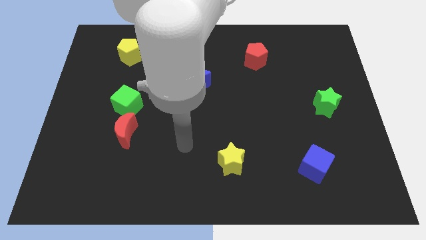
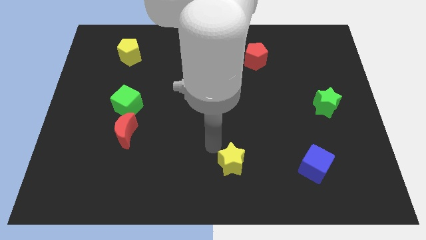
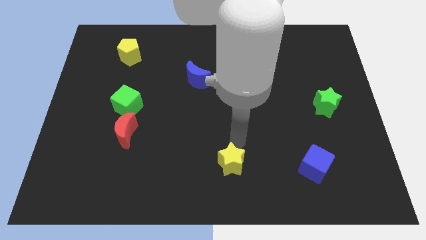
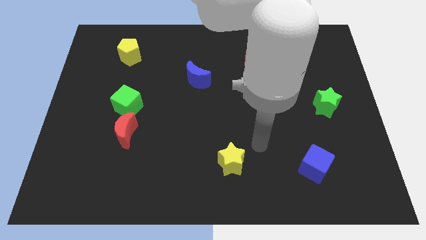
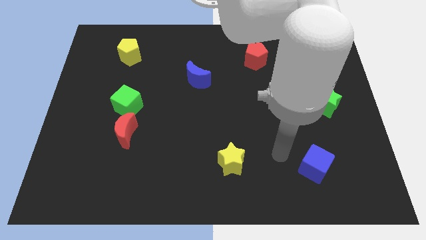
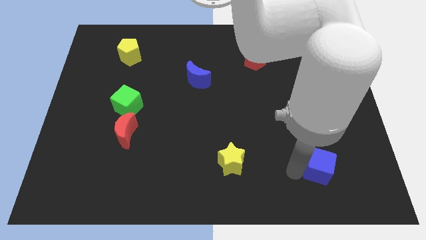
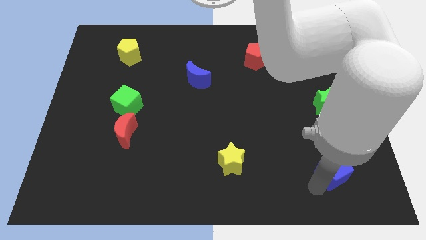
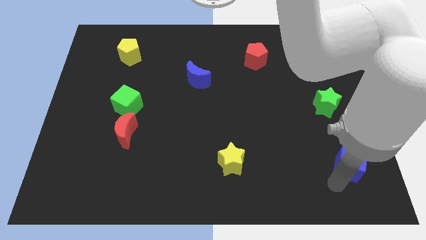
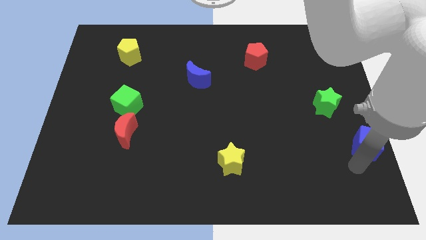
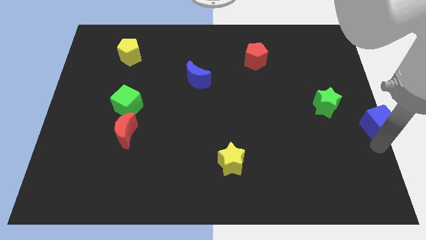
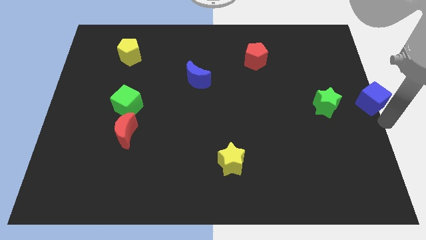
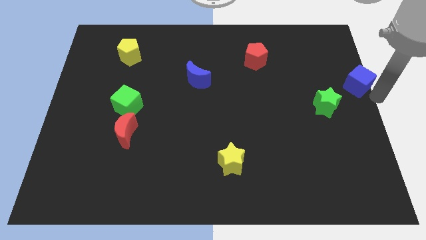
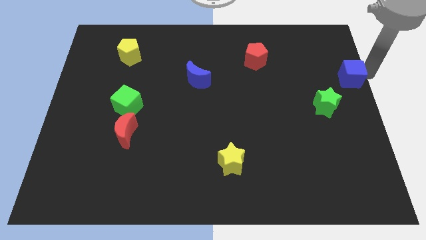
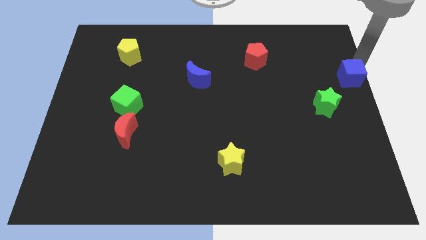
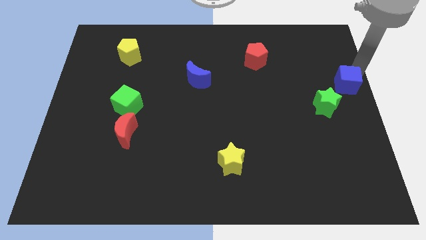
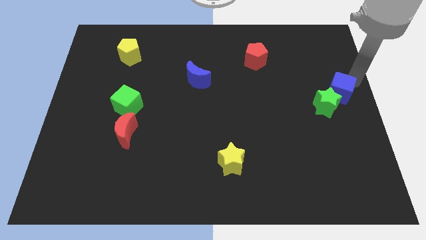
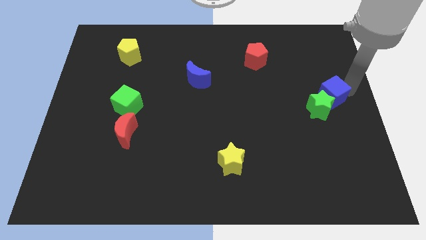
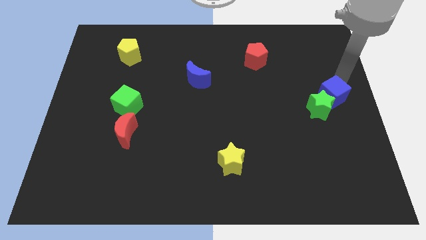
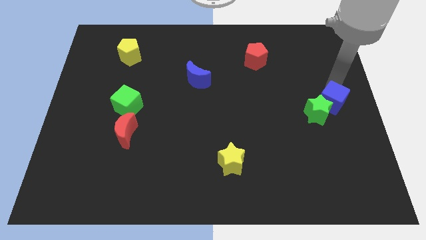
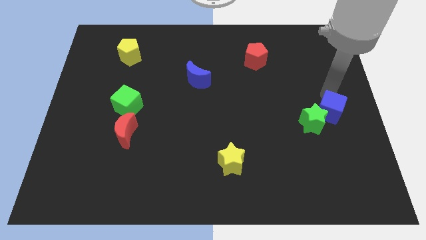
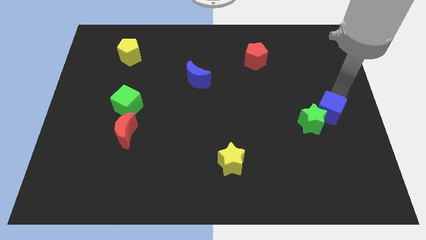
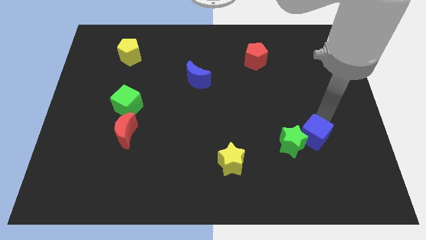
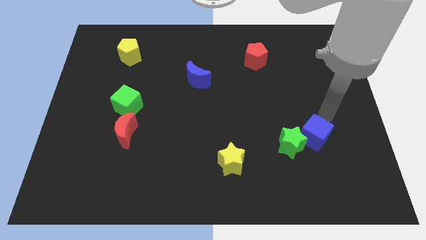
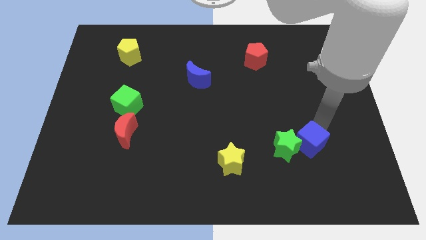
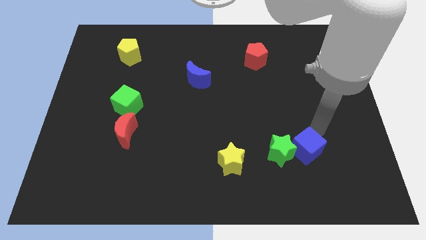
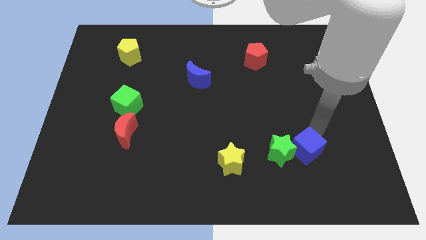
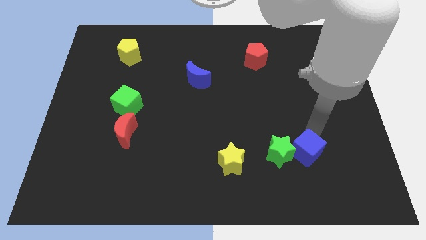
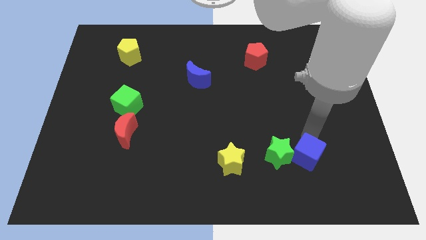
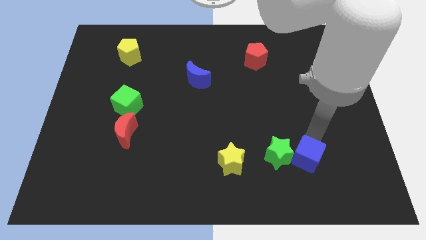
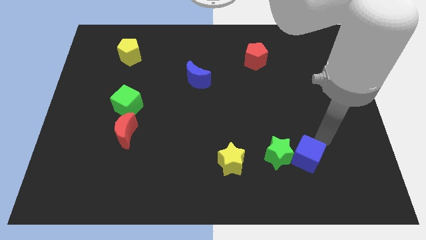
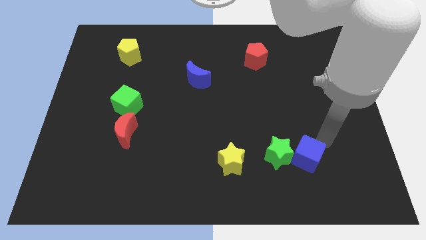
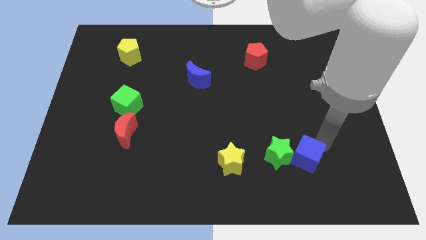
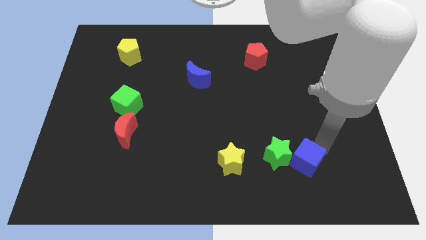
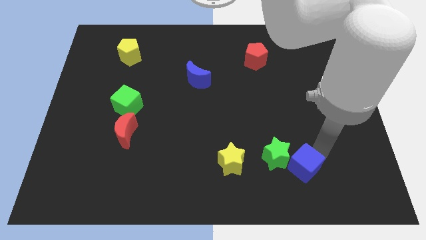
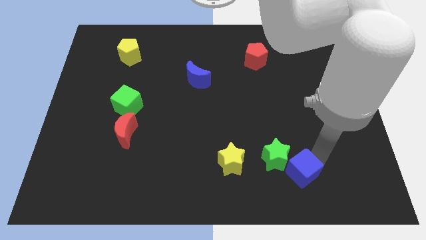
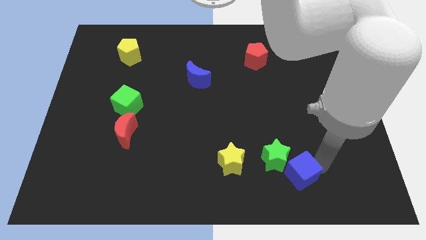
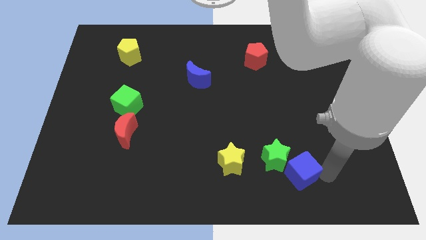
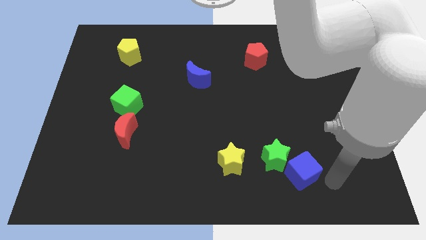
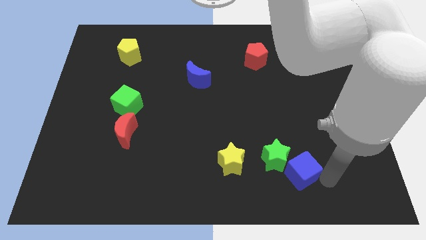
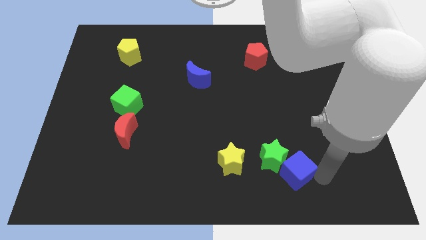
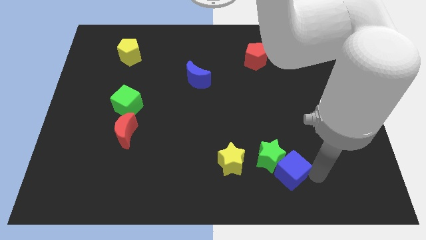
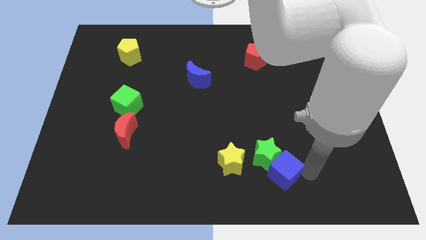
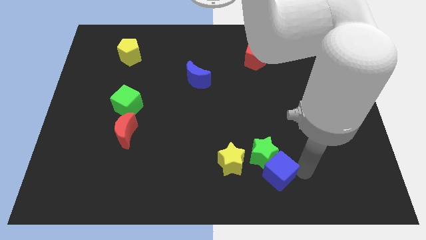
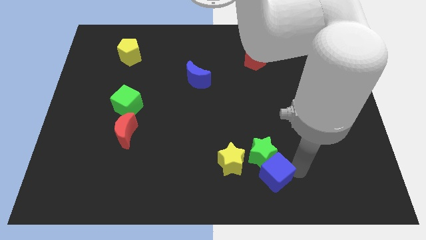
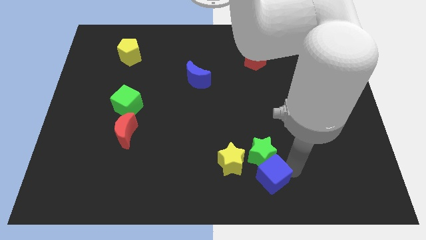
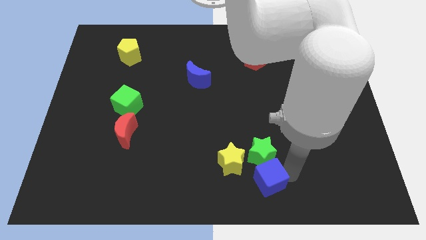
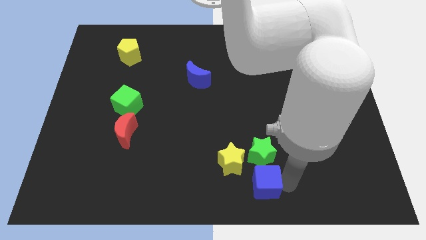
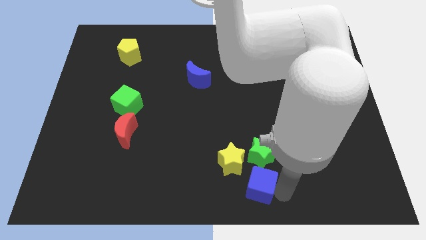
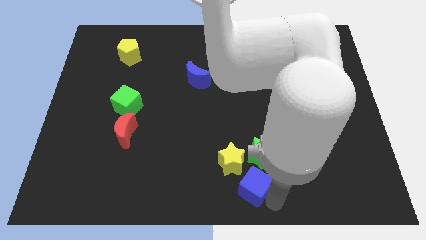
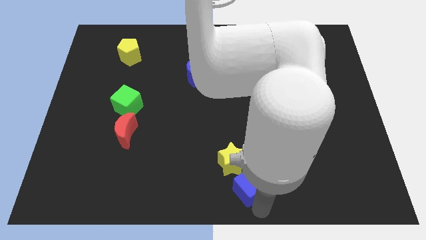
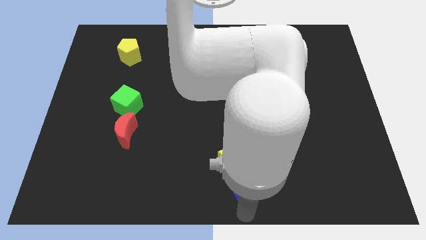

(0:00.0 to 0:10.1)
put the blue cube close to the yellow star

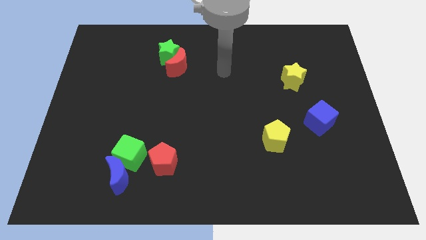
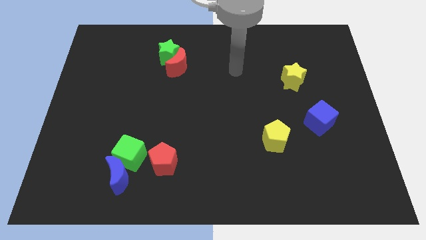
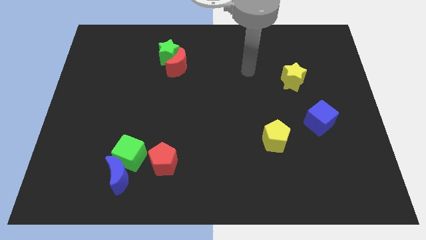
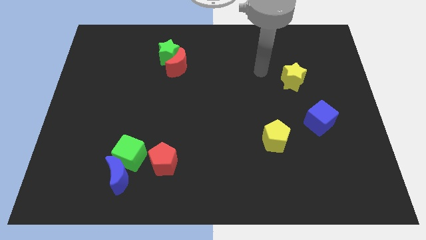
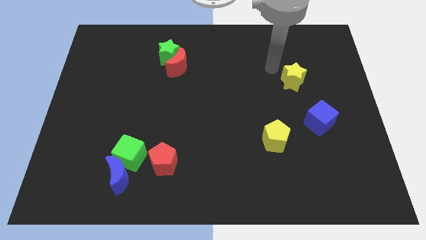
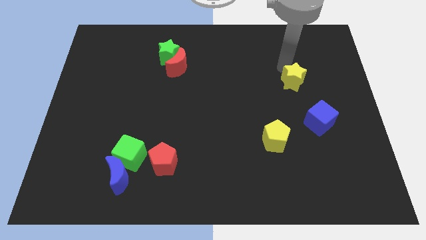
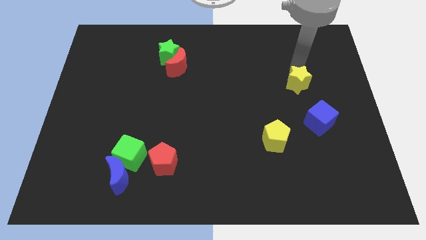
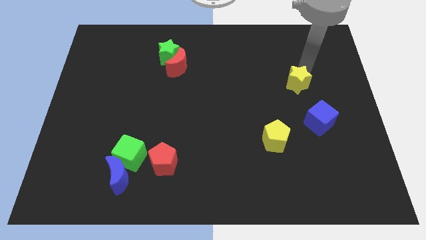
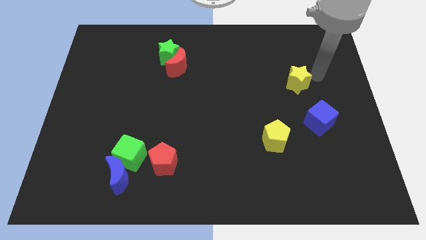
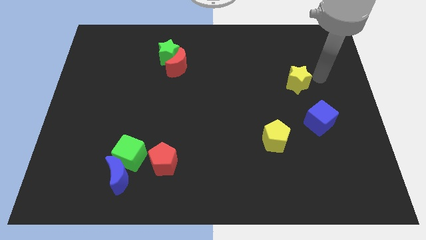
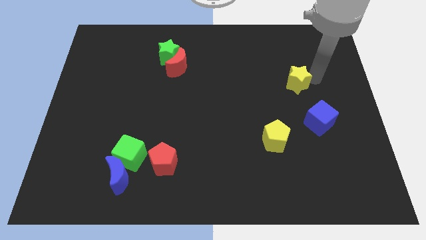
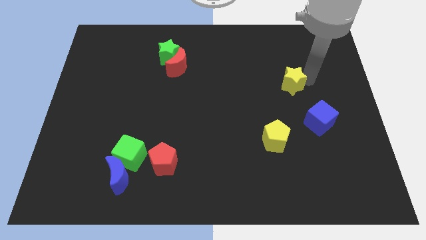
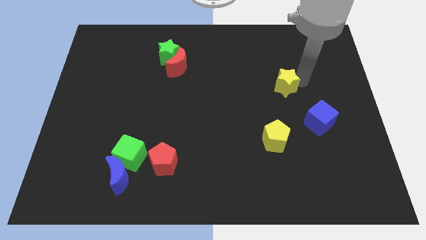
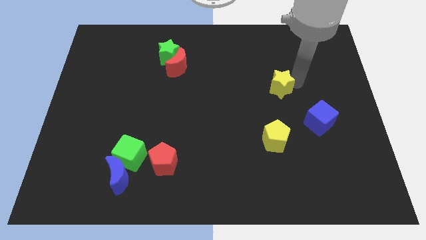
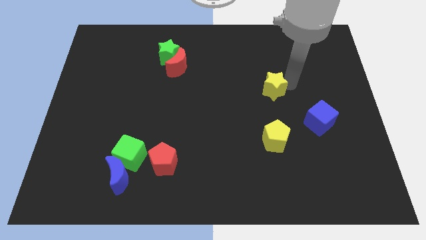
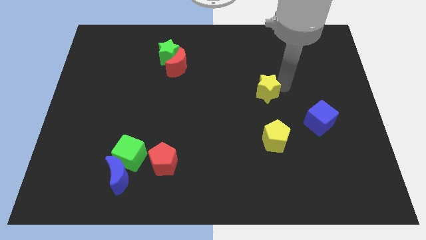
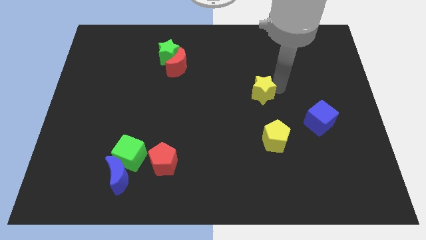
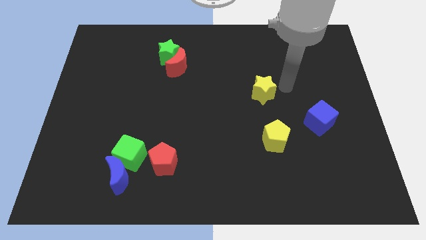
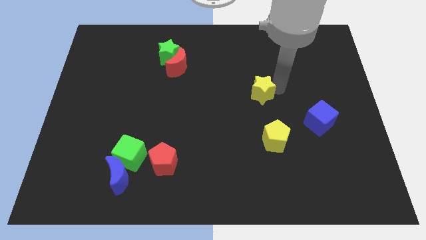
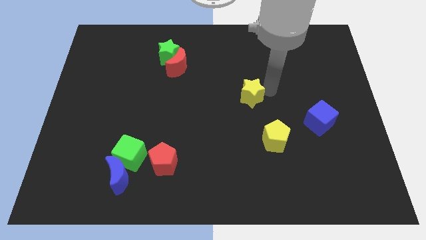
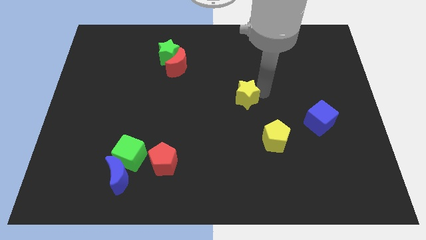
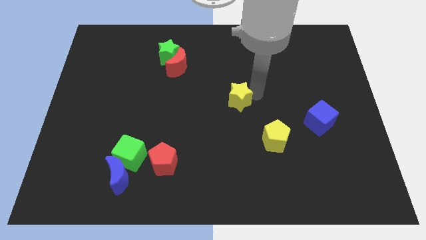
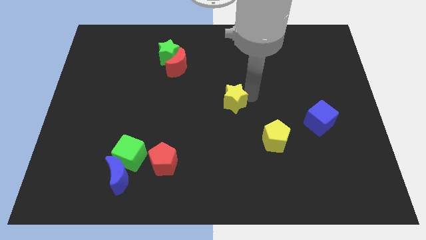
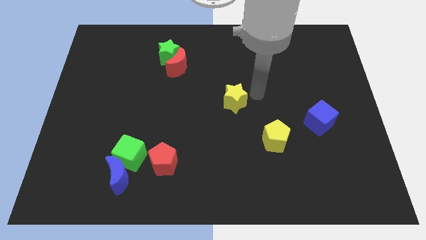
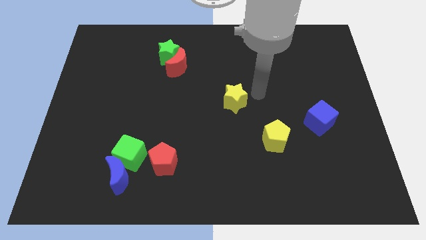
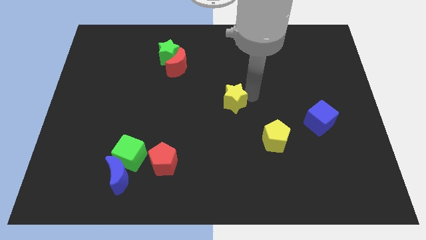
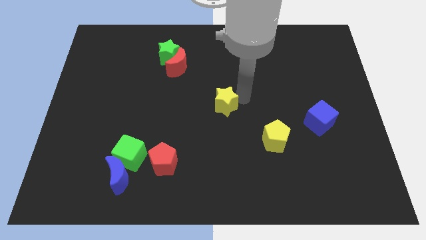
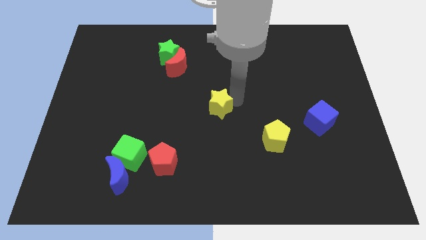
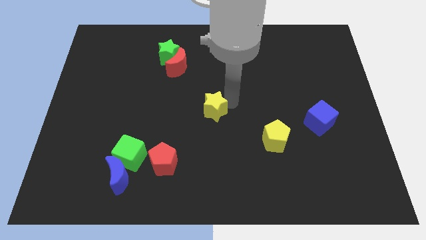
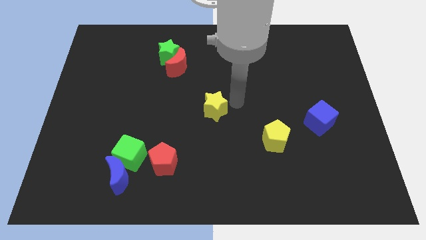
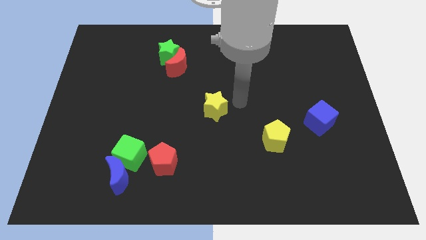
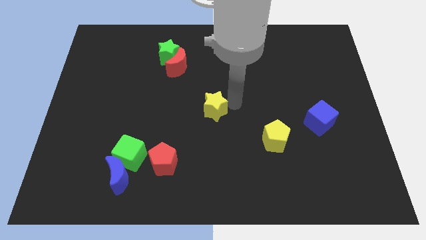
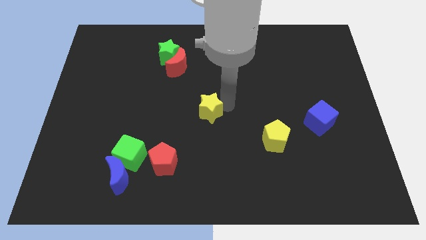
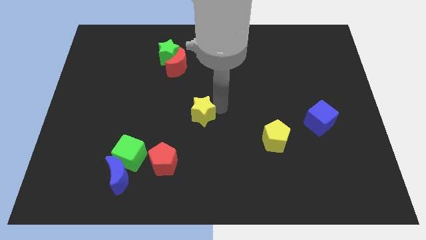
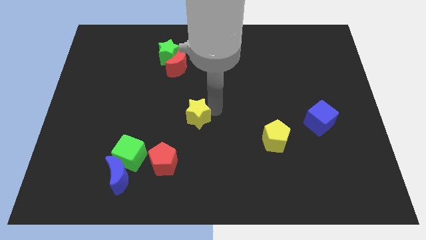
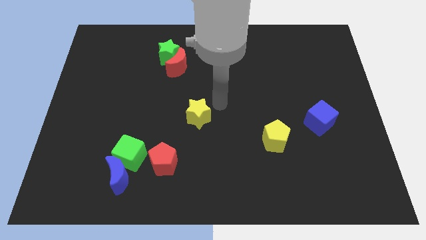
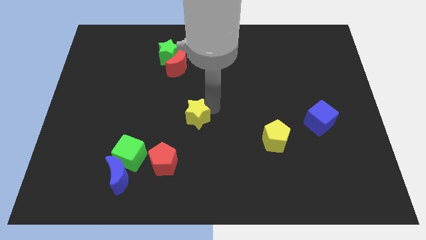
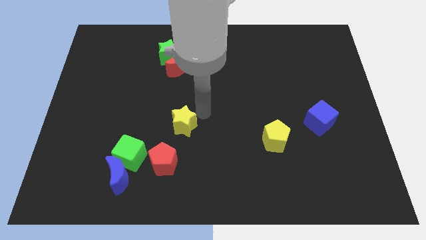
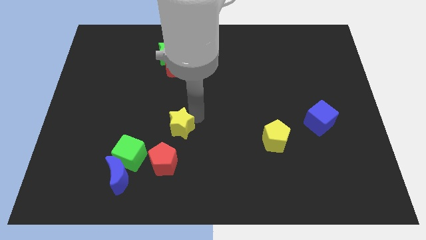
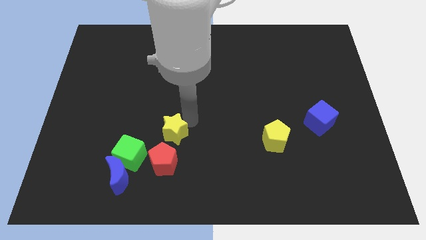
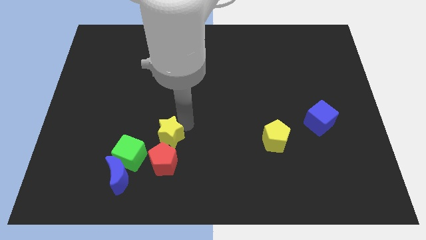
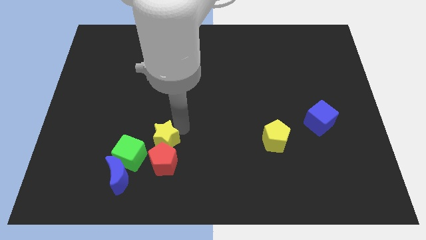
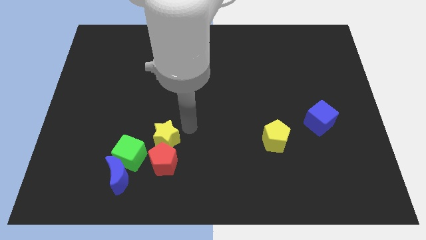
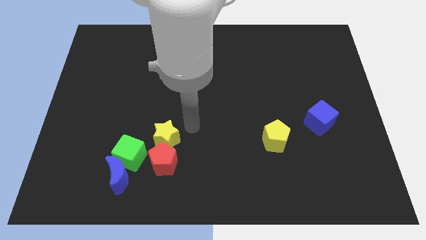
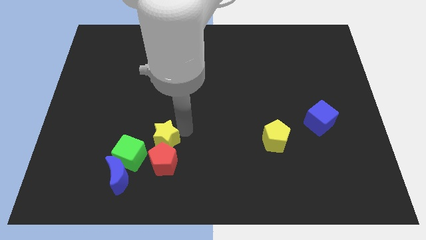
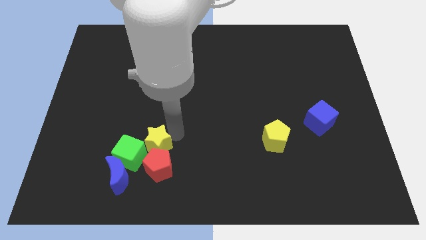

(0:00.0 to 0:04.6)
push the yellow star towards the green cube
